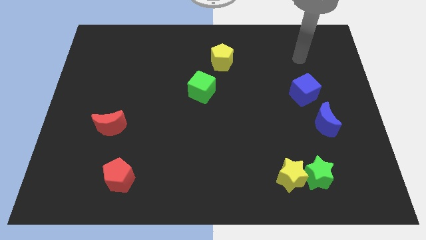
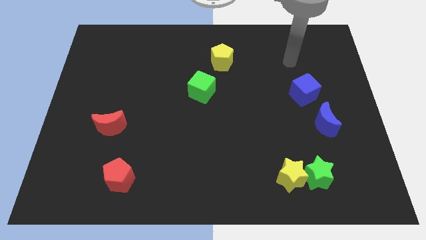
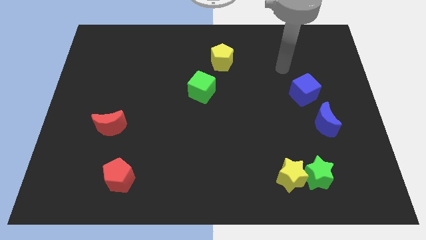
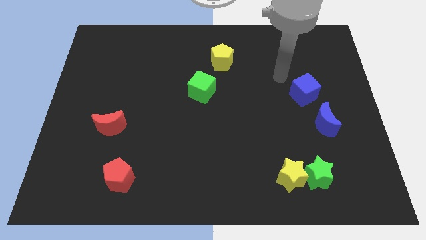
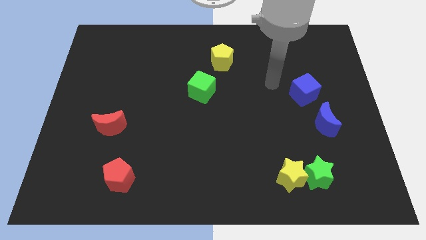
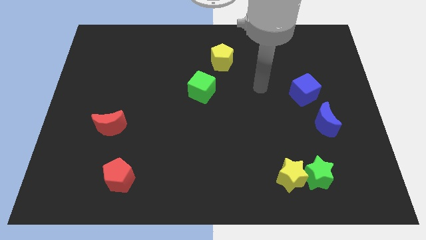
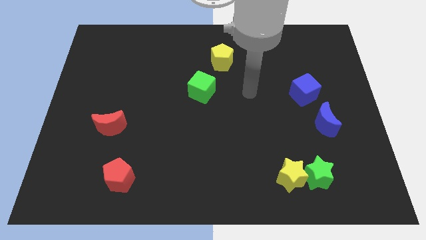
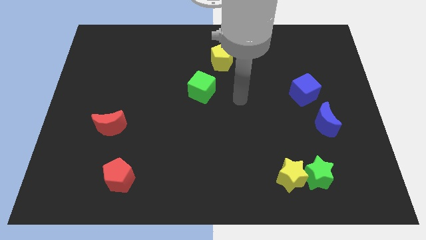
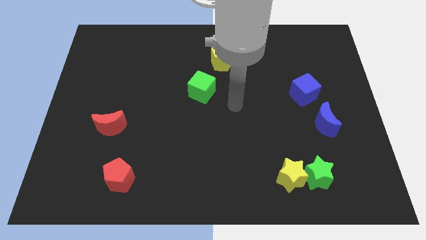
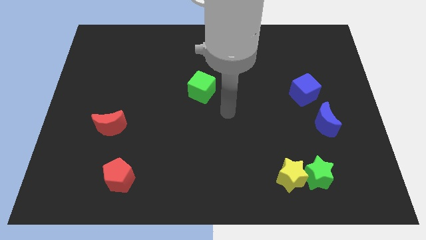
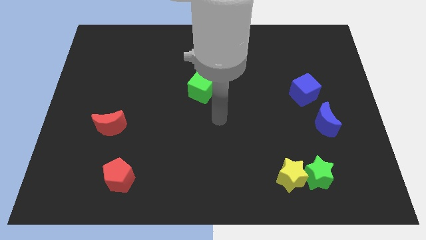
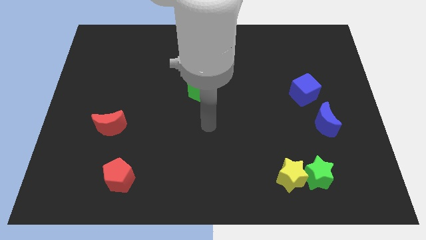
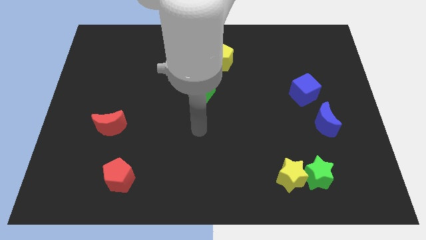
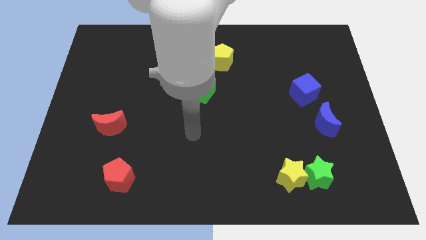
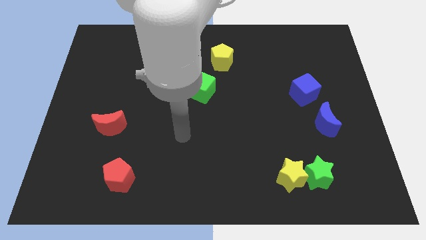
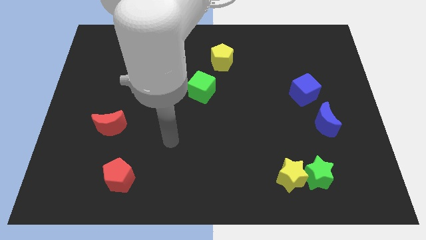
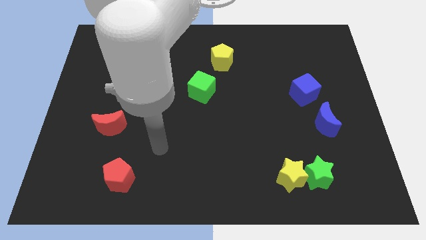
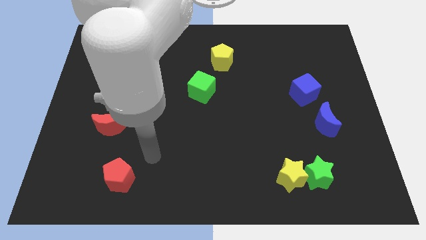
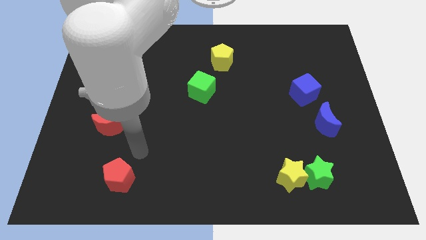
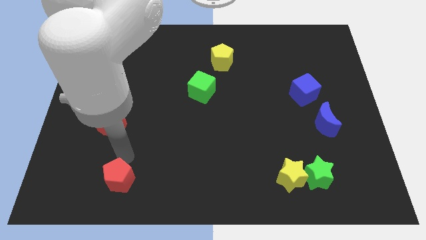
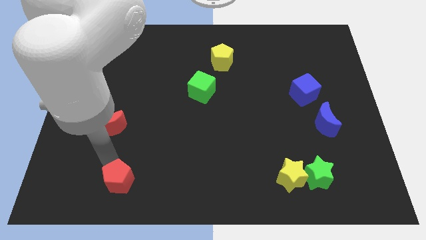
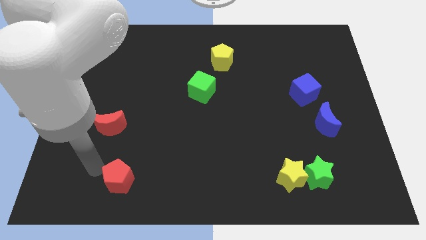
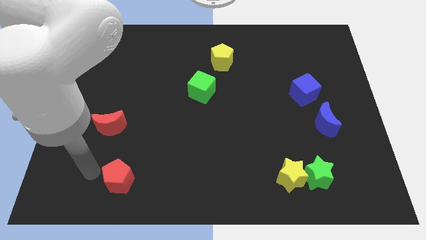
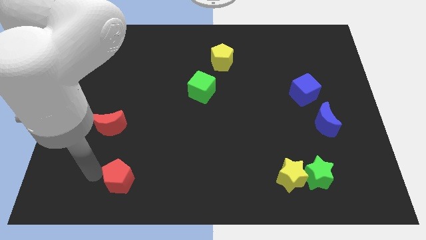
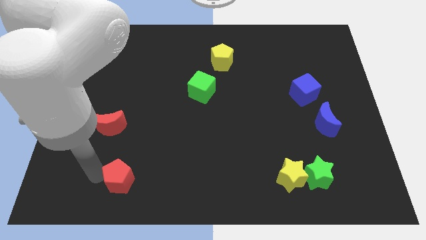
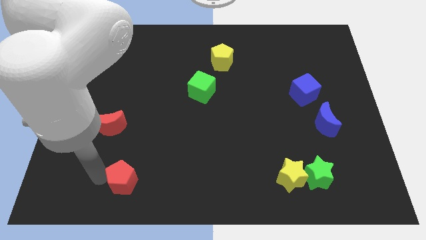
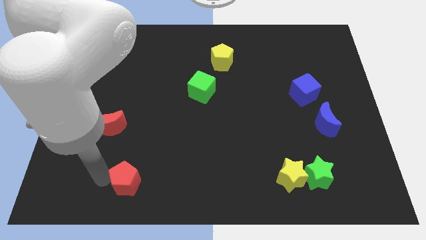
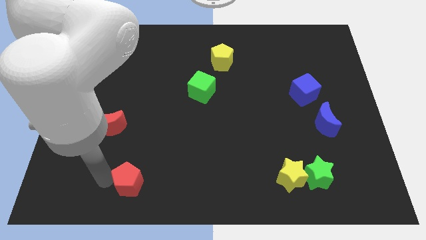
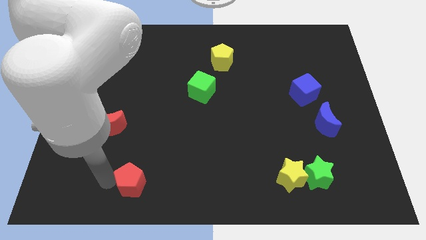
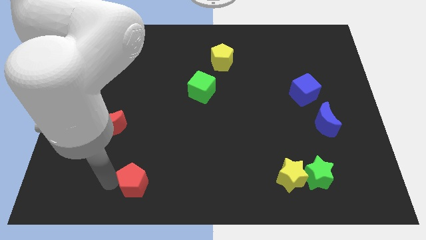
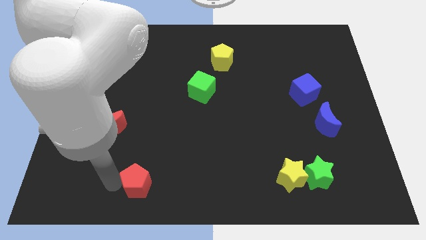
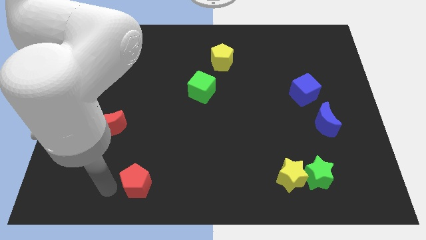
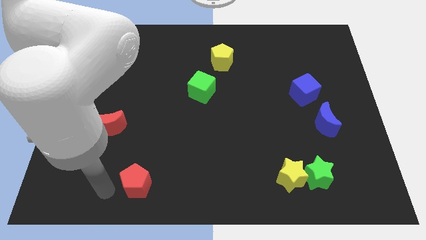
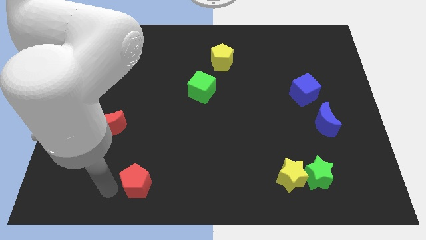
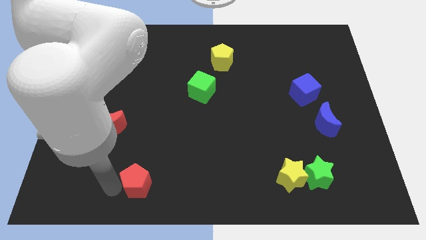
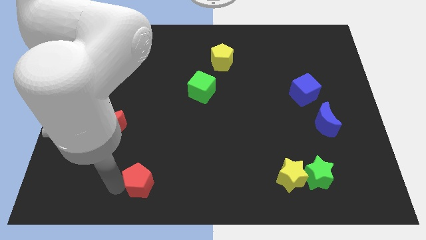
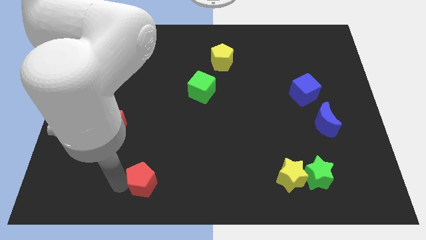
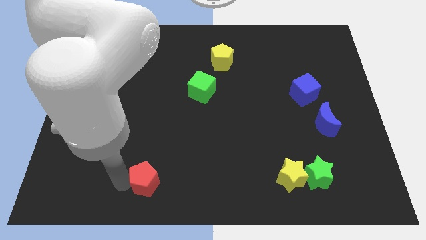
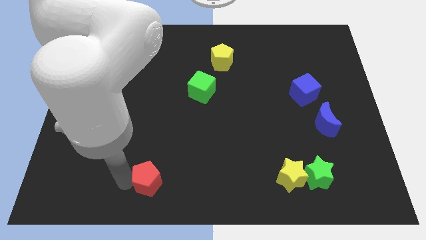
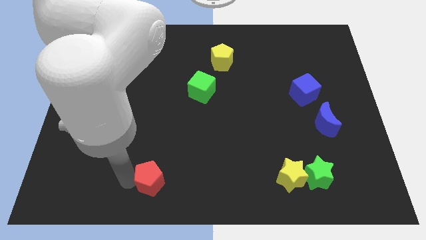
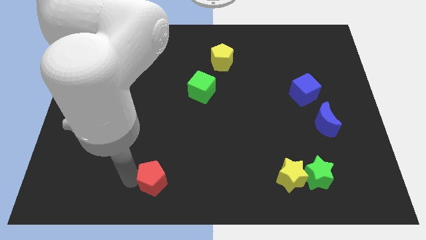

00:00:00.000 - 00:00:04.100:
slide the red pentagon right a bit

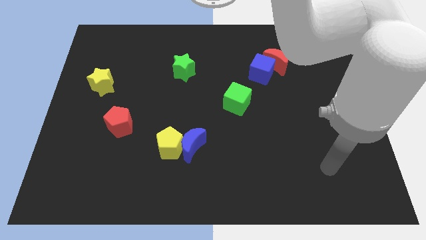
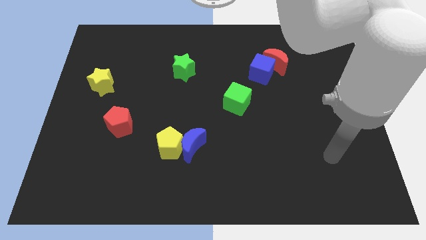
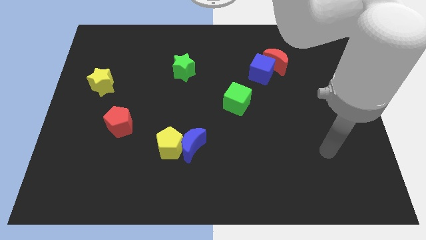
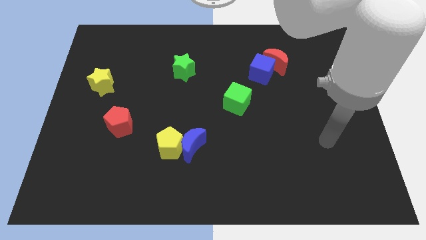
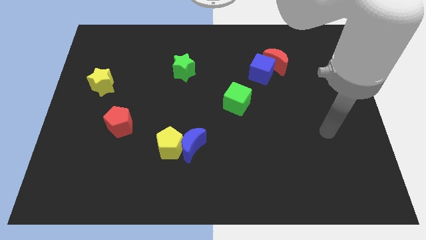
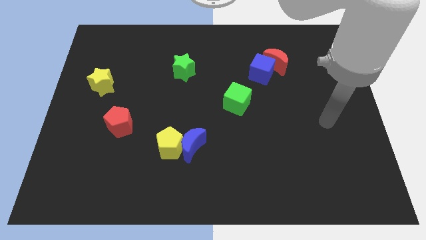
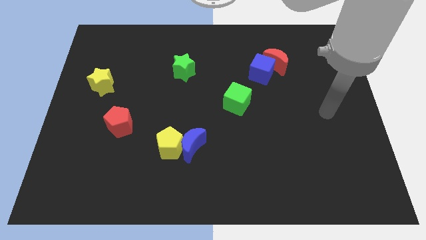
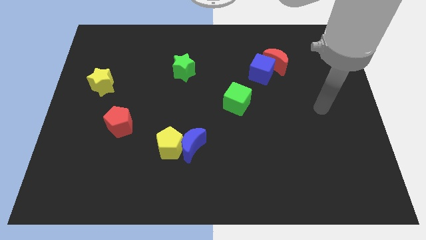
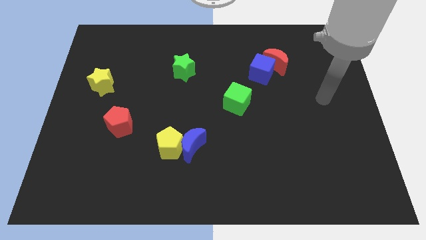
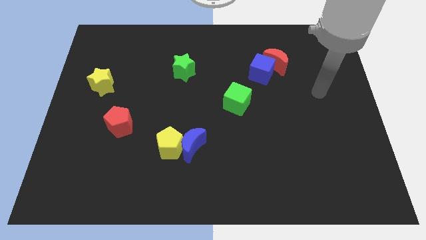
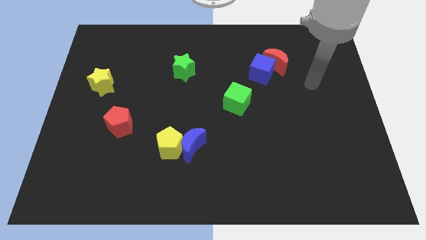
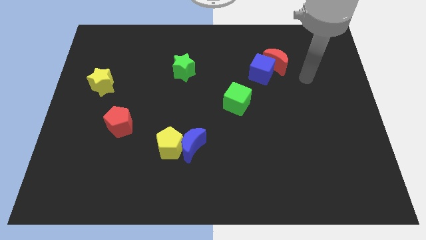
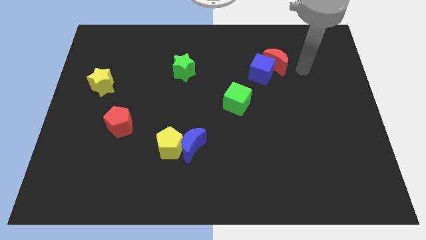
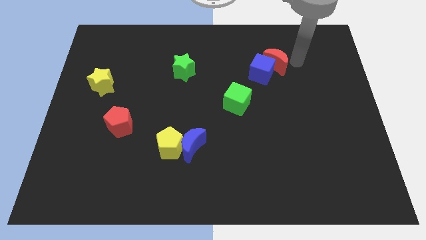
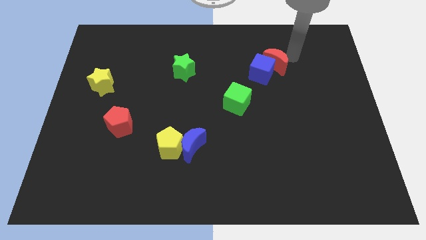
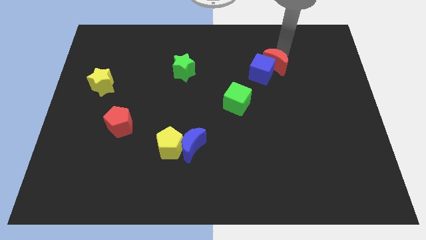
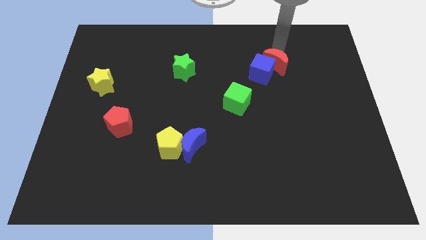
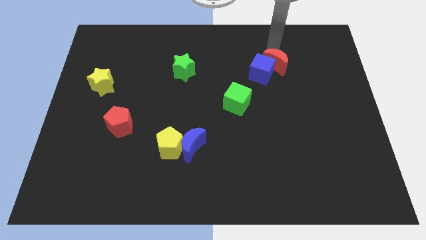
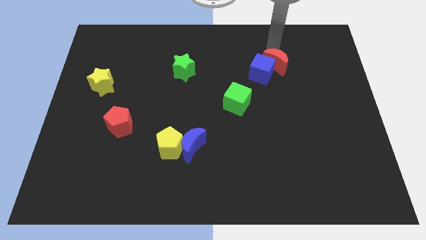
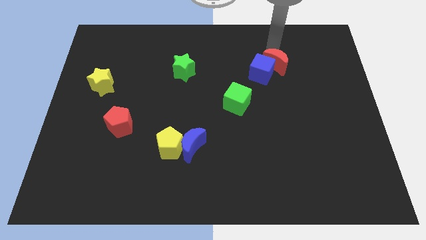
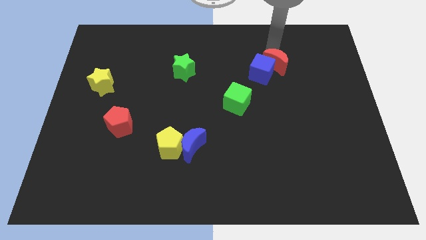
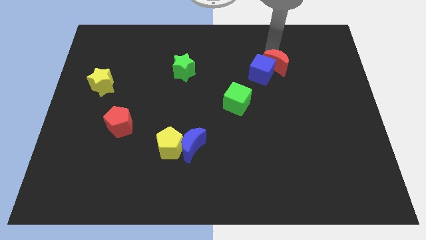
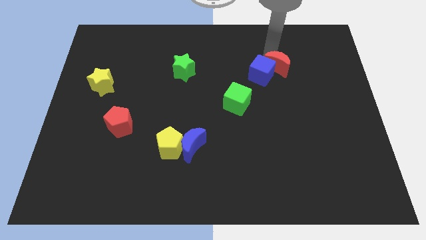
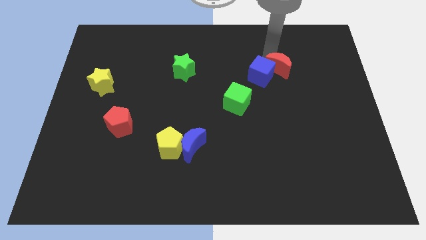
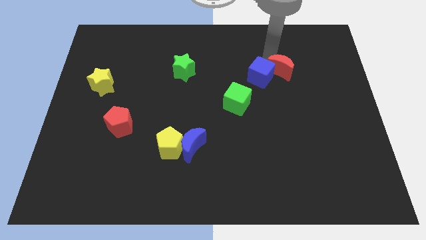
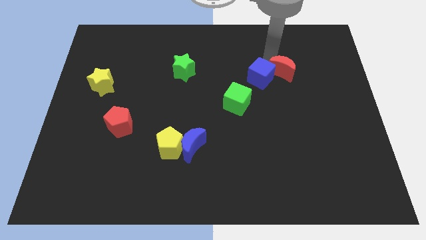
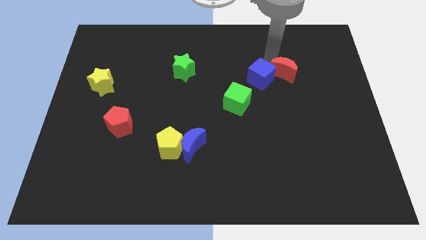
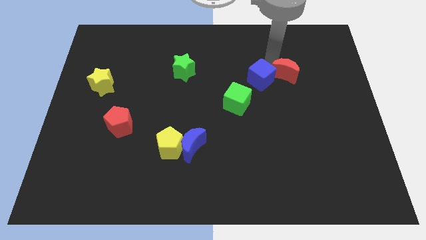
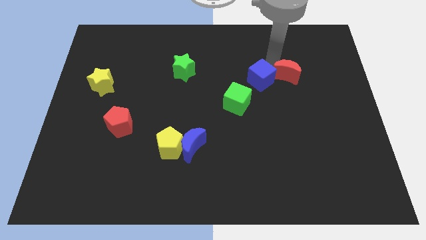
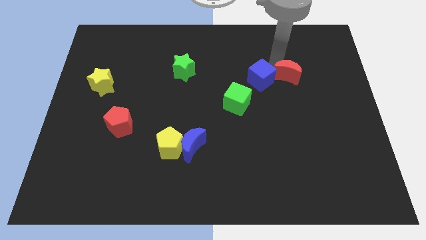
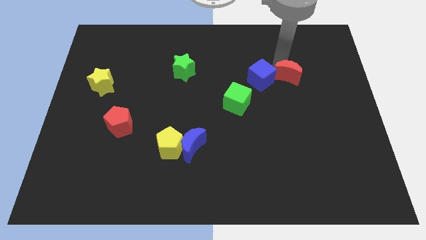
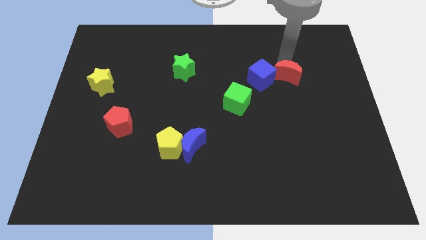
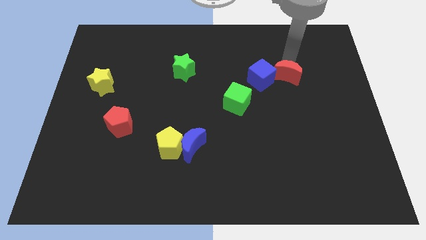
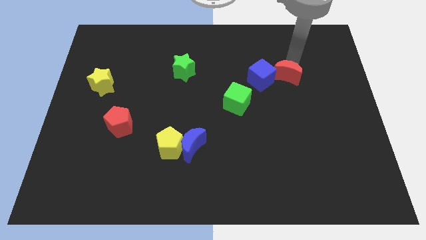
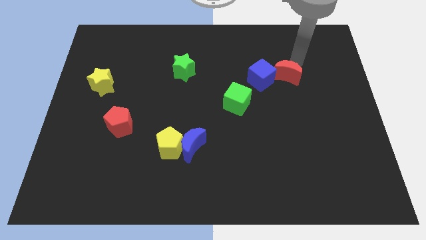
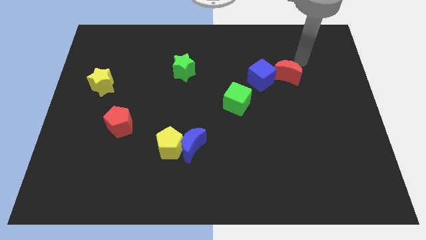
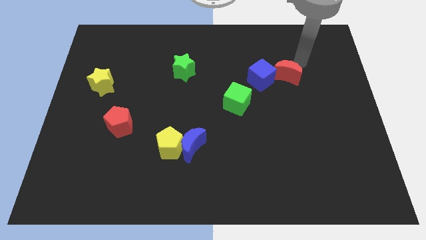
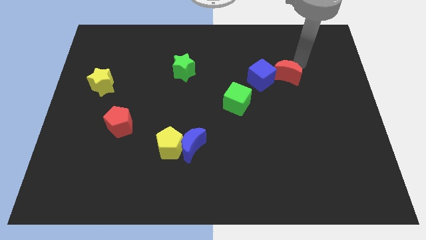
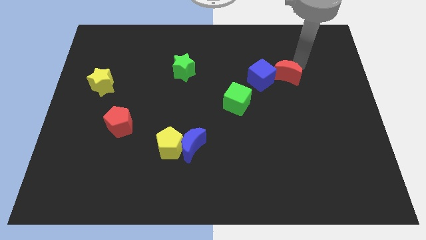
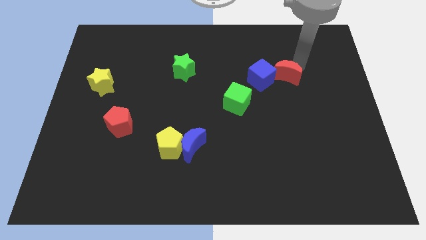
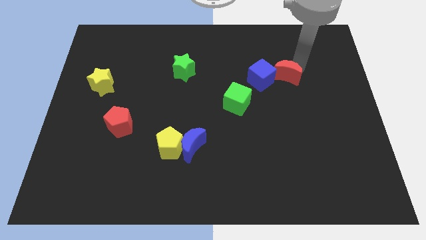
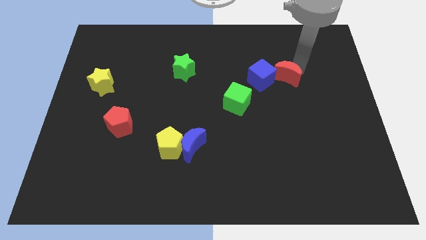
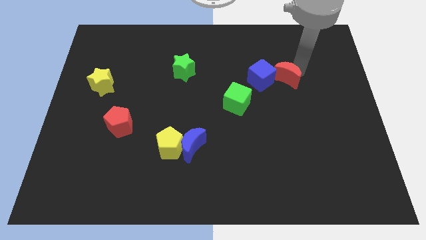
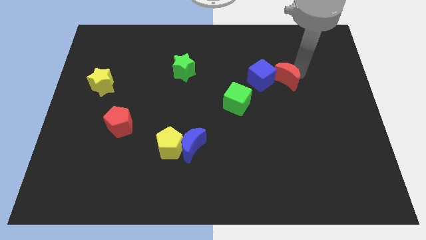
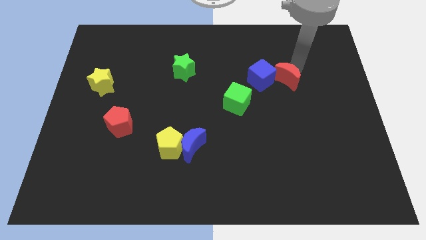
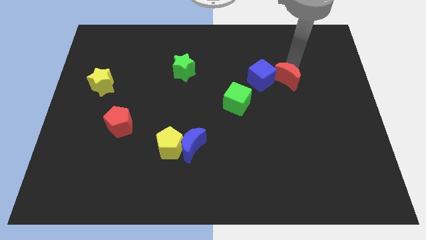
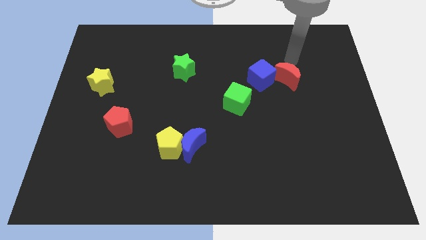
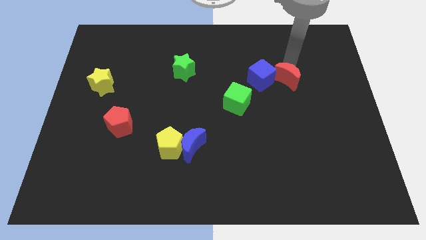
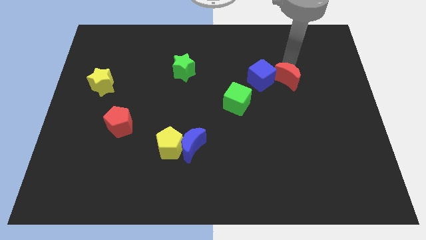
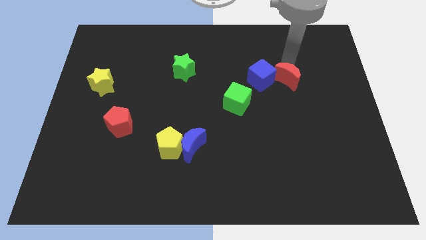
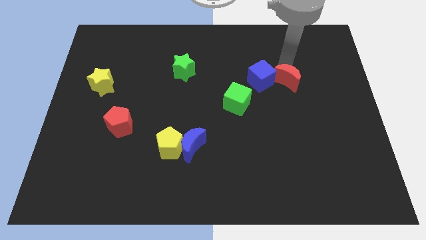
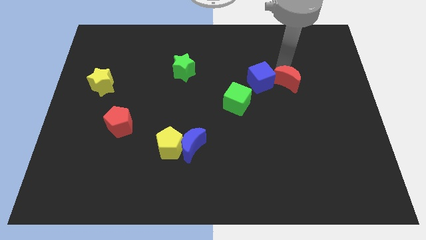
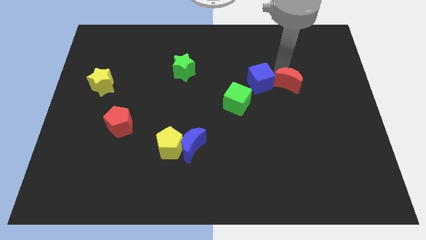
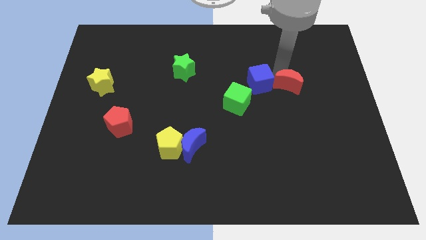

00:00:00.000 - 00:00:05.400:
push the red moon downwards a little
